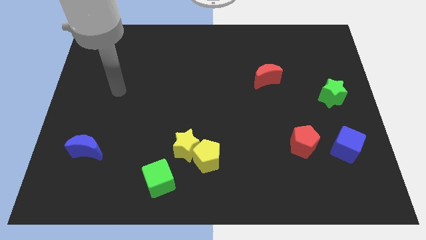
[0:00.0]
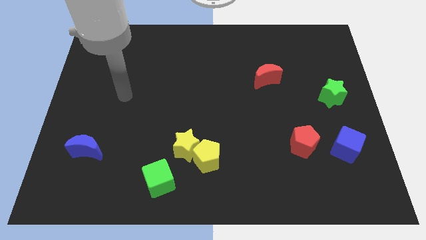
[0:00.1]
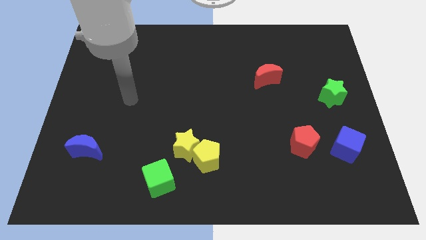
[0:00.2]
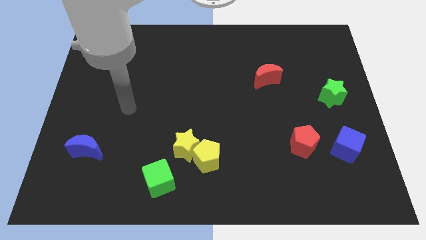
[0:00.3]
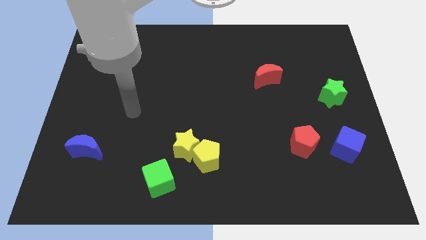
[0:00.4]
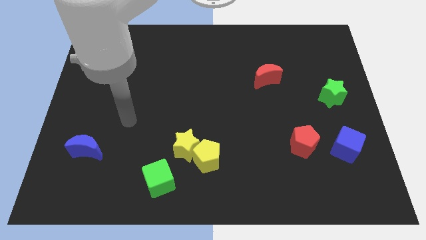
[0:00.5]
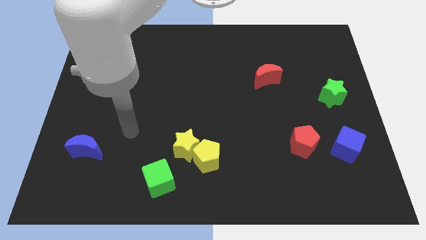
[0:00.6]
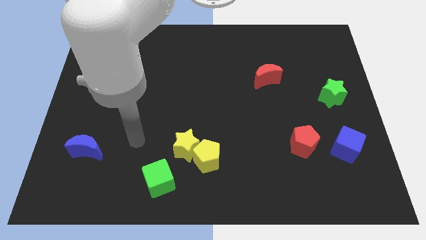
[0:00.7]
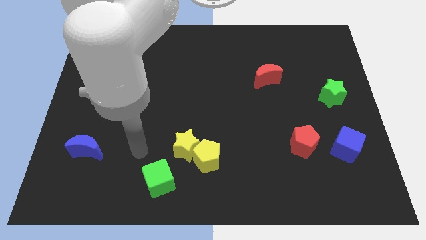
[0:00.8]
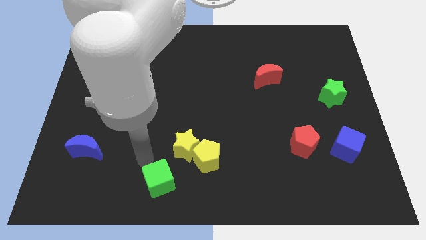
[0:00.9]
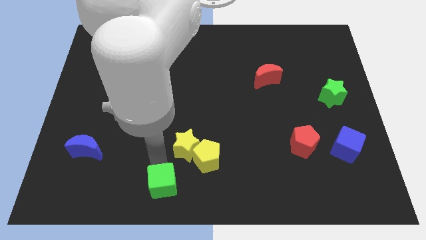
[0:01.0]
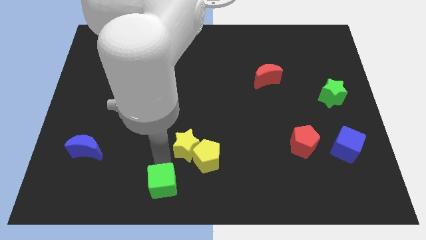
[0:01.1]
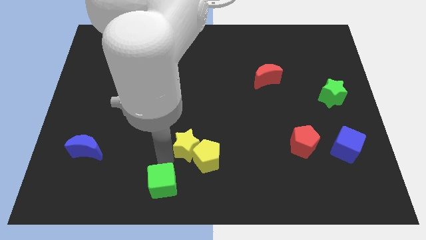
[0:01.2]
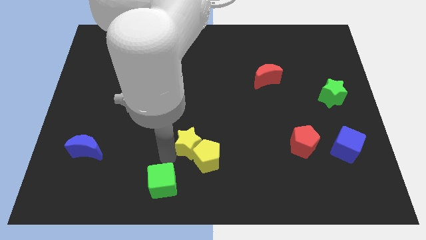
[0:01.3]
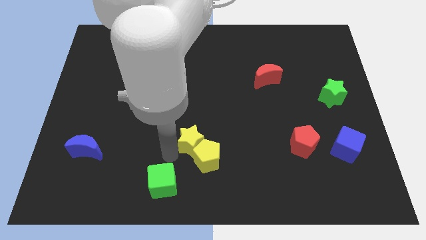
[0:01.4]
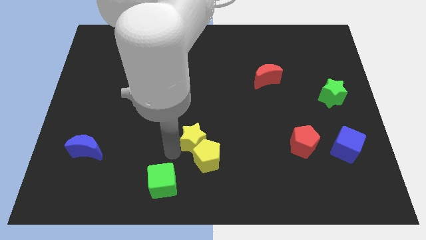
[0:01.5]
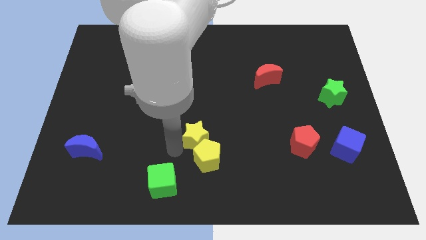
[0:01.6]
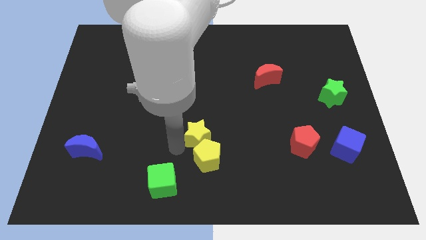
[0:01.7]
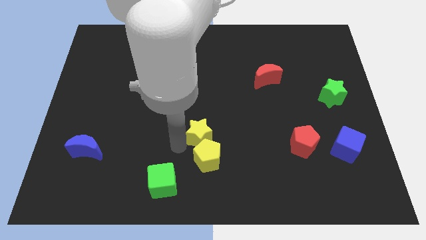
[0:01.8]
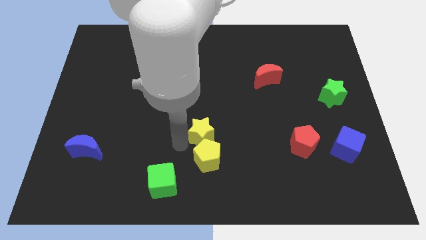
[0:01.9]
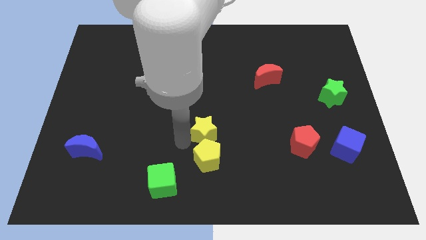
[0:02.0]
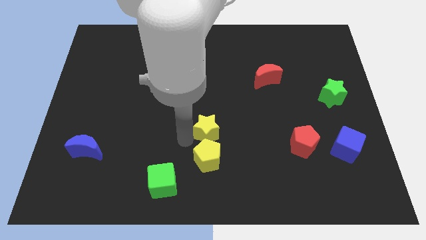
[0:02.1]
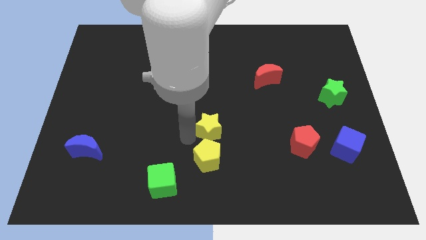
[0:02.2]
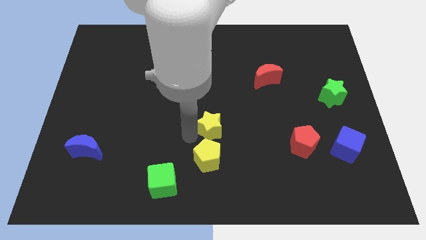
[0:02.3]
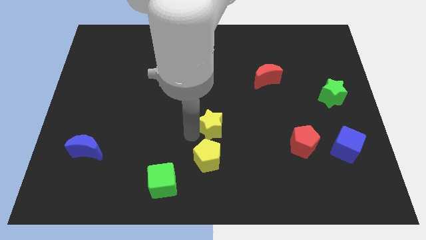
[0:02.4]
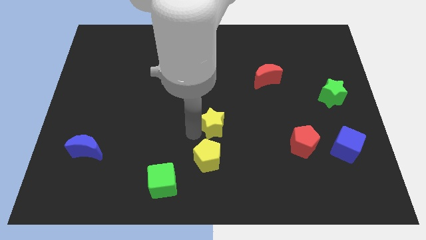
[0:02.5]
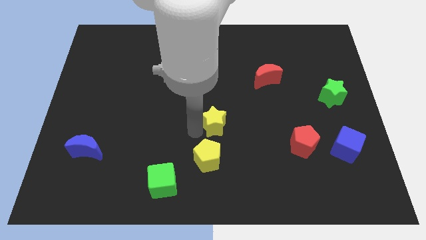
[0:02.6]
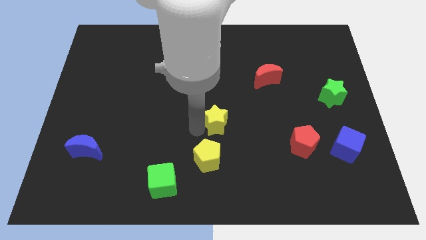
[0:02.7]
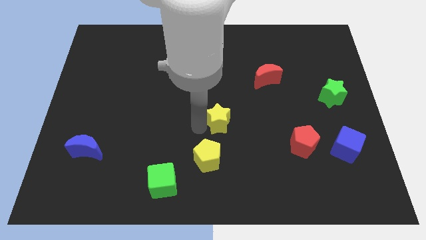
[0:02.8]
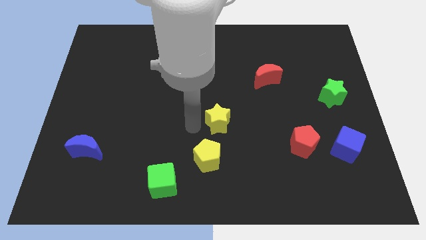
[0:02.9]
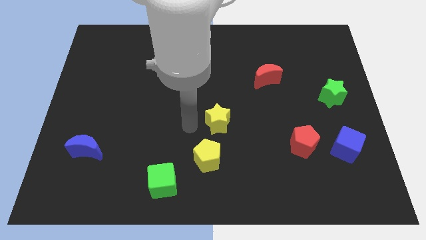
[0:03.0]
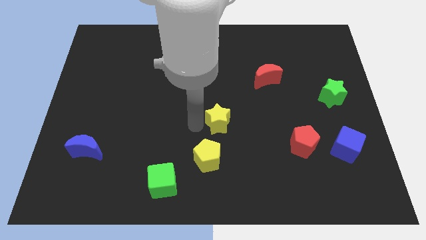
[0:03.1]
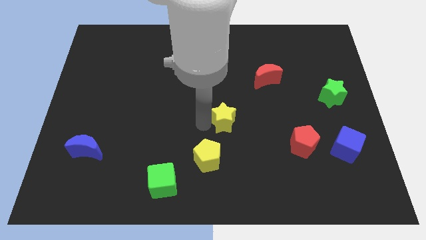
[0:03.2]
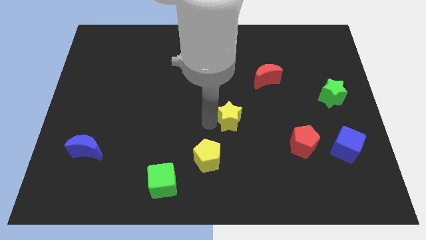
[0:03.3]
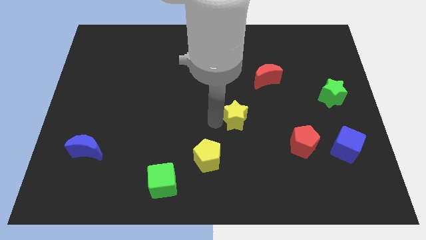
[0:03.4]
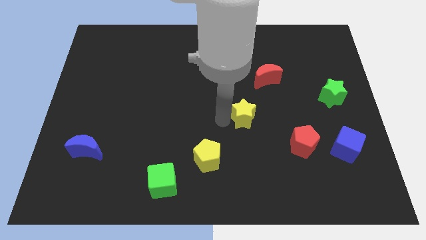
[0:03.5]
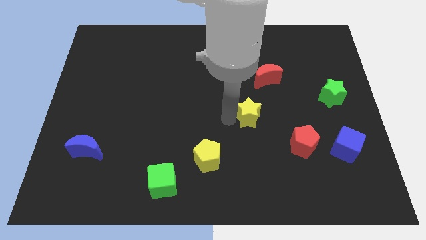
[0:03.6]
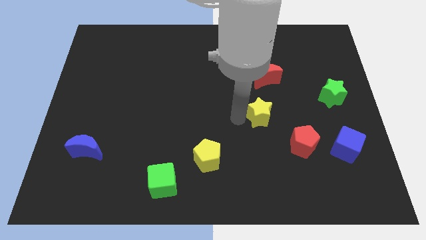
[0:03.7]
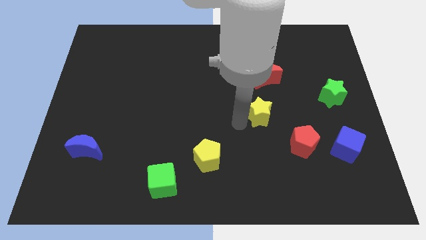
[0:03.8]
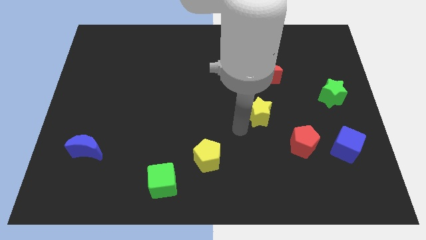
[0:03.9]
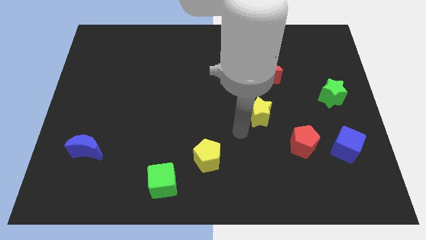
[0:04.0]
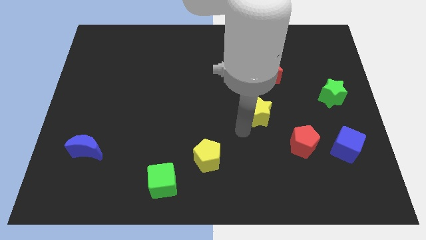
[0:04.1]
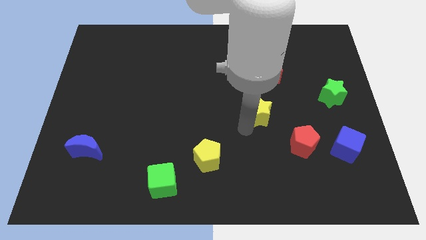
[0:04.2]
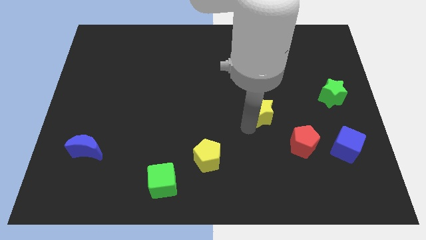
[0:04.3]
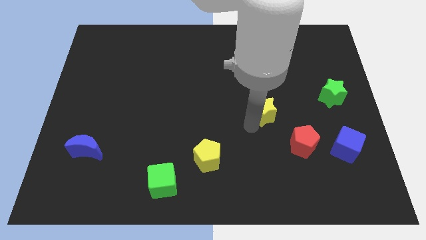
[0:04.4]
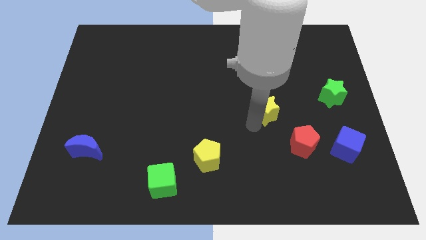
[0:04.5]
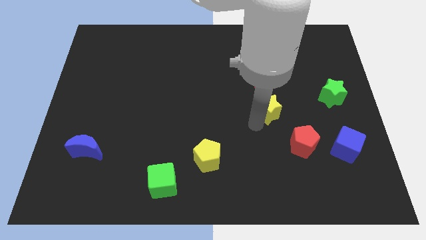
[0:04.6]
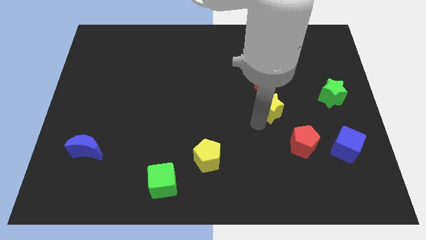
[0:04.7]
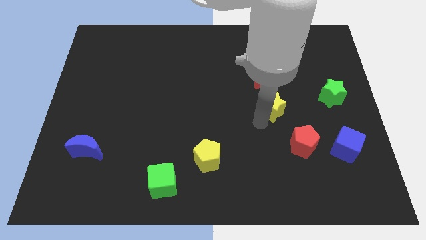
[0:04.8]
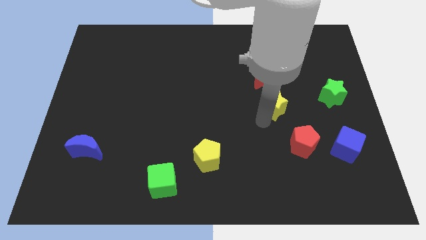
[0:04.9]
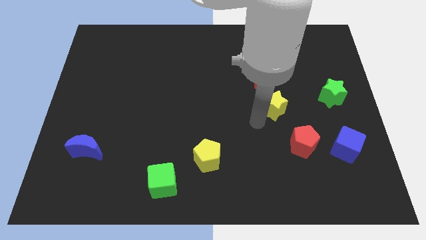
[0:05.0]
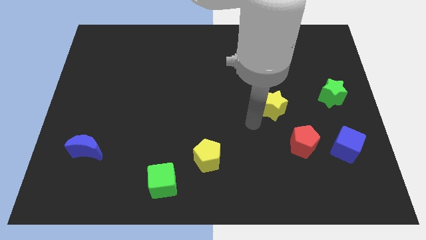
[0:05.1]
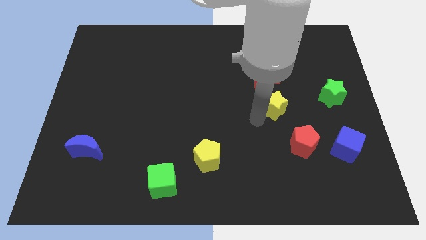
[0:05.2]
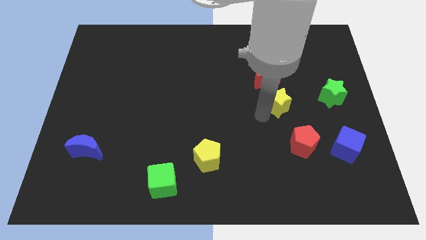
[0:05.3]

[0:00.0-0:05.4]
slide the yellow star to the bottom right side of the red moon

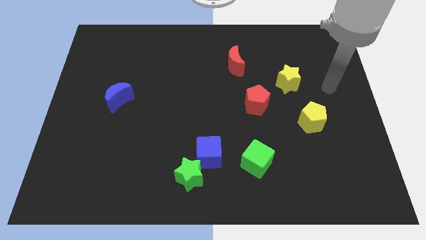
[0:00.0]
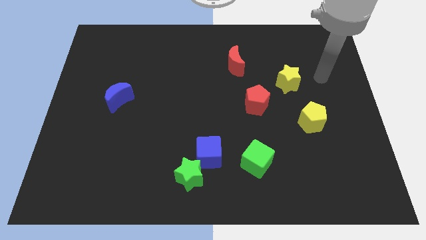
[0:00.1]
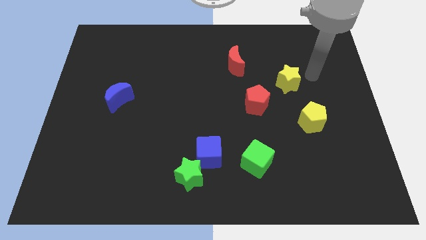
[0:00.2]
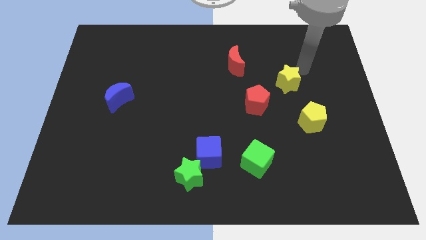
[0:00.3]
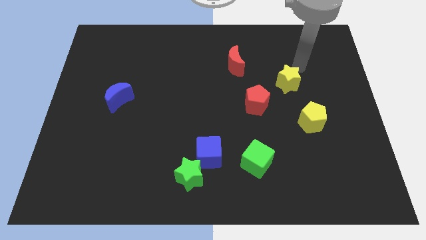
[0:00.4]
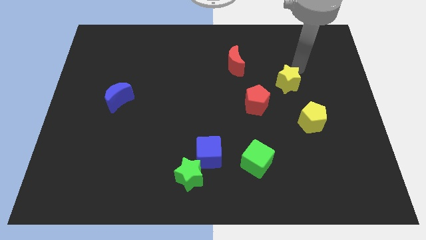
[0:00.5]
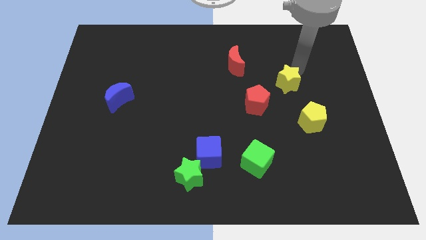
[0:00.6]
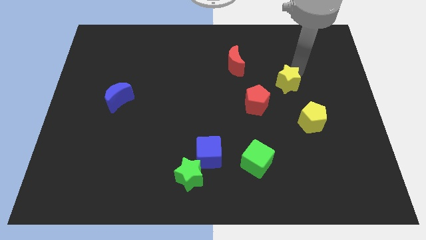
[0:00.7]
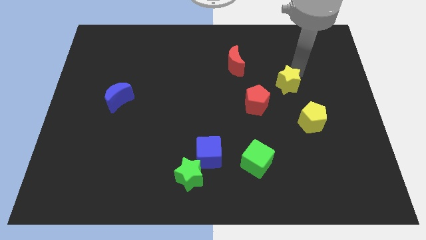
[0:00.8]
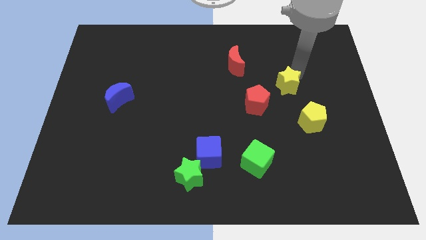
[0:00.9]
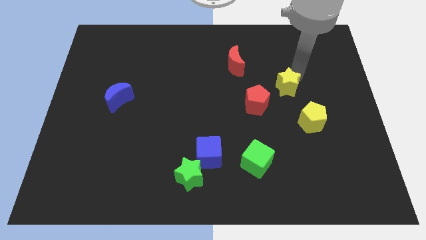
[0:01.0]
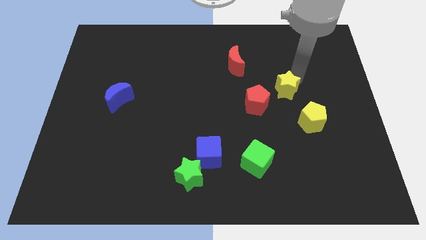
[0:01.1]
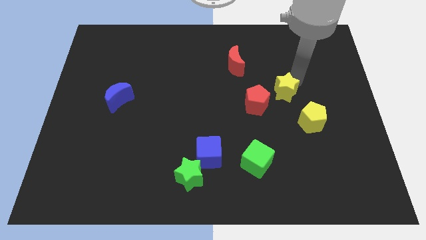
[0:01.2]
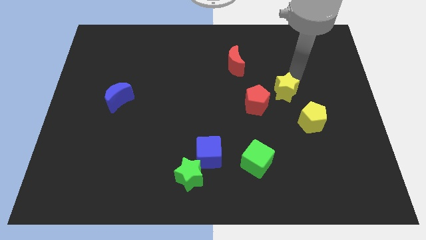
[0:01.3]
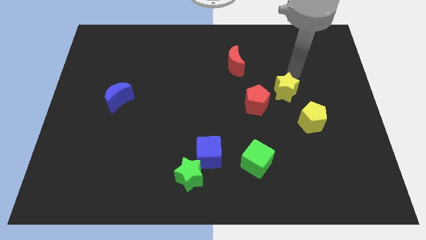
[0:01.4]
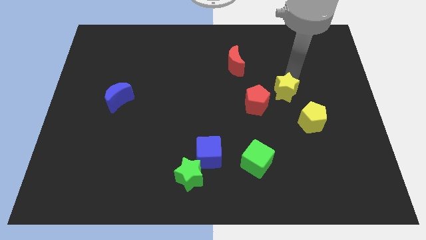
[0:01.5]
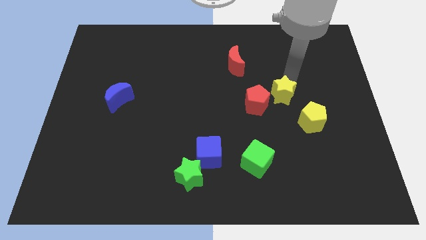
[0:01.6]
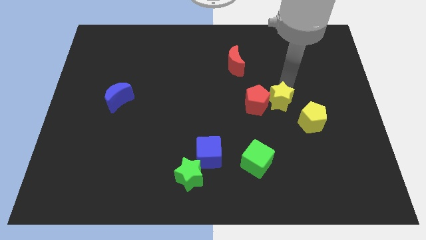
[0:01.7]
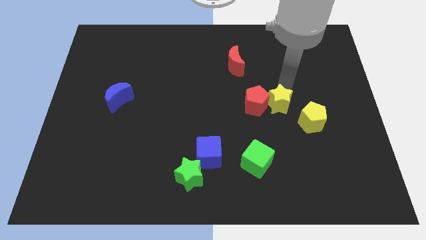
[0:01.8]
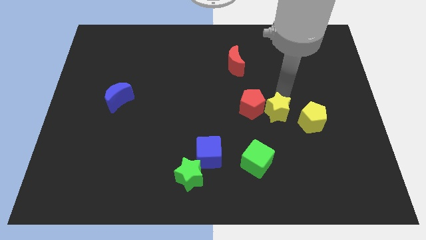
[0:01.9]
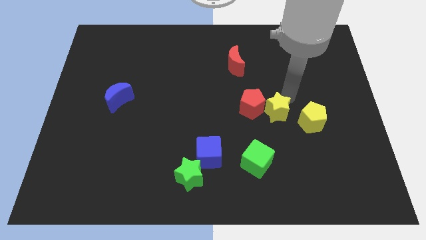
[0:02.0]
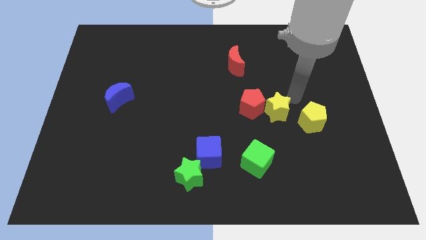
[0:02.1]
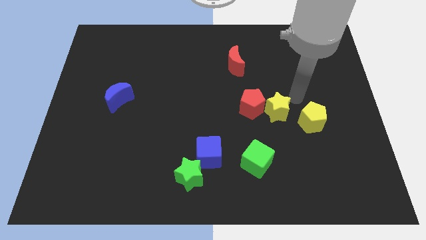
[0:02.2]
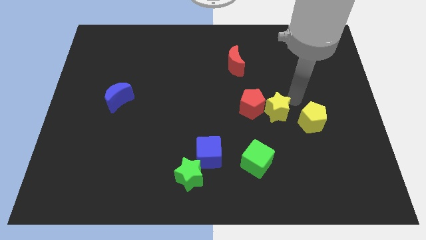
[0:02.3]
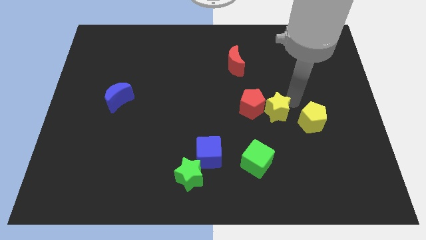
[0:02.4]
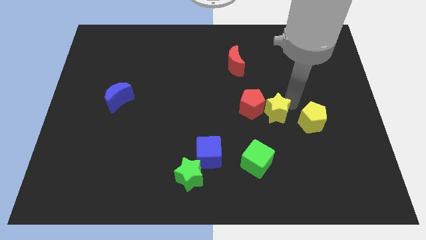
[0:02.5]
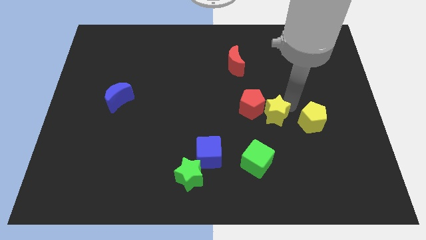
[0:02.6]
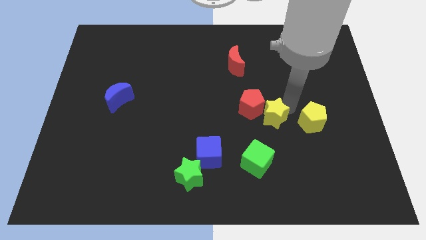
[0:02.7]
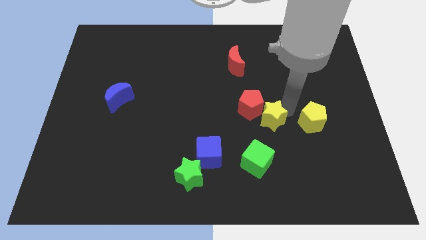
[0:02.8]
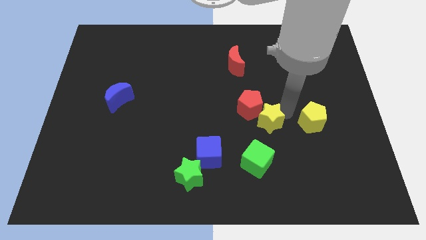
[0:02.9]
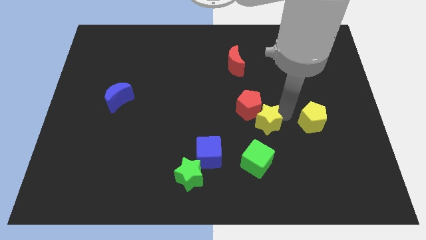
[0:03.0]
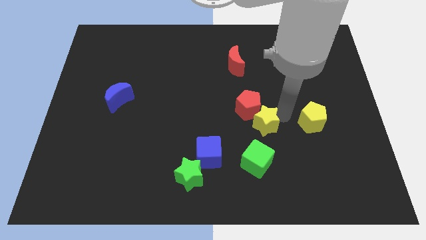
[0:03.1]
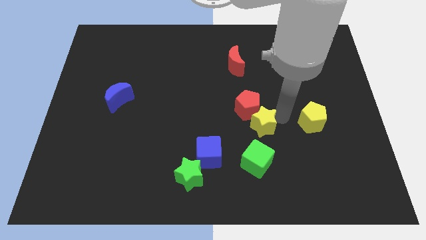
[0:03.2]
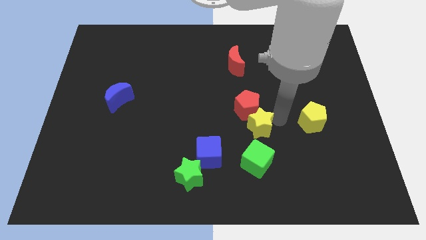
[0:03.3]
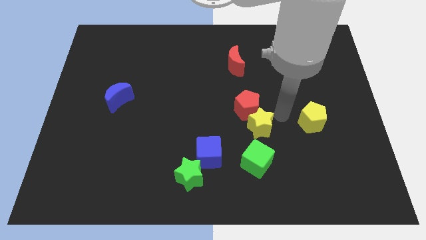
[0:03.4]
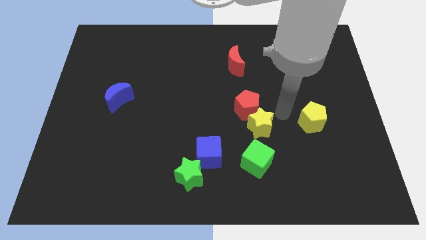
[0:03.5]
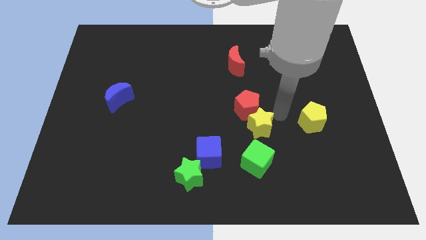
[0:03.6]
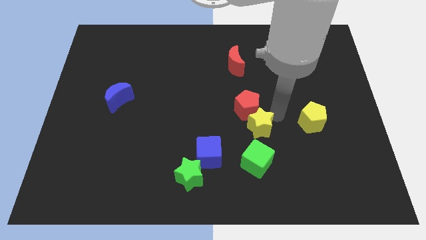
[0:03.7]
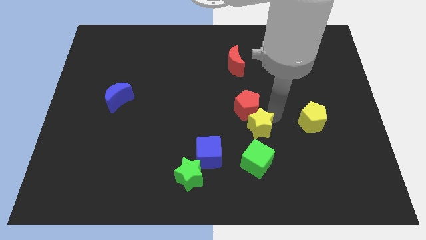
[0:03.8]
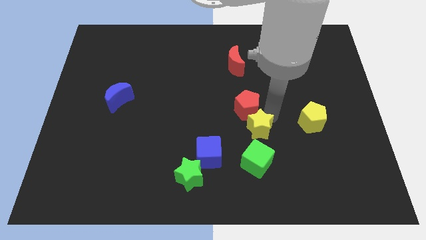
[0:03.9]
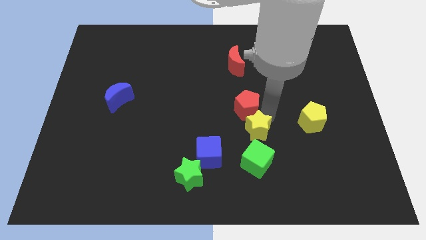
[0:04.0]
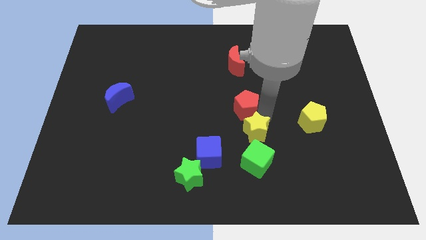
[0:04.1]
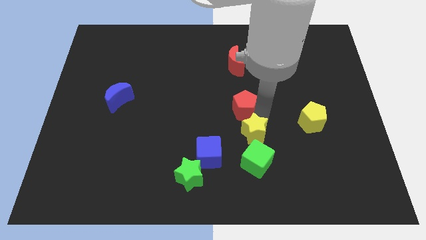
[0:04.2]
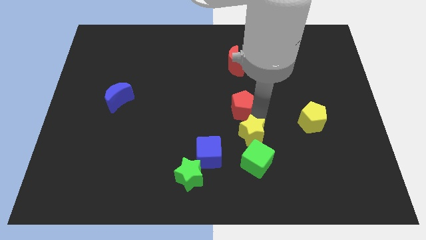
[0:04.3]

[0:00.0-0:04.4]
put the yellow star to the top left side of the green cube
